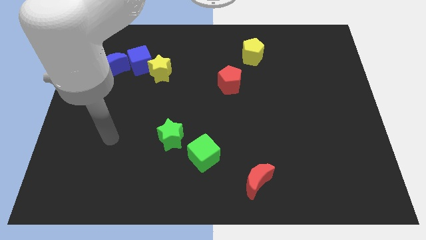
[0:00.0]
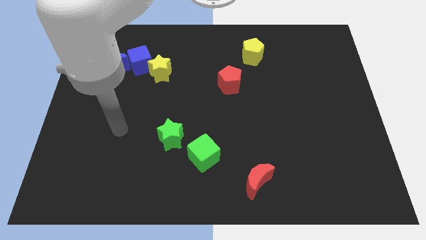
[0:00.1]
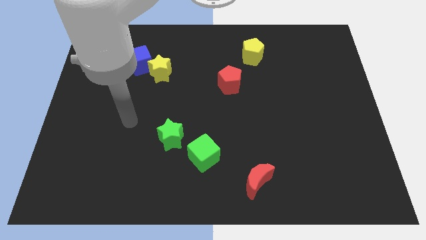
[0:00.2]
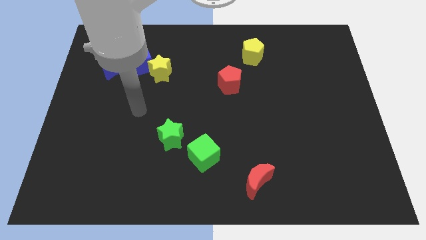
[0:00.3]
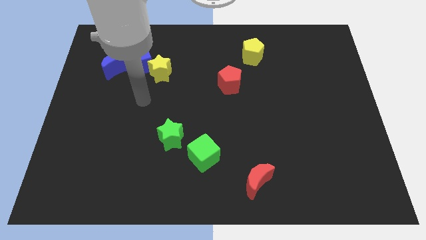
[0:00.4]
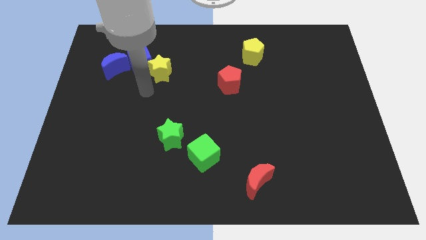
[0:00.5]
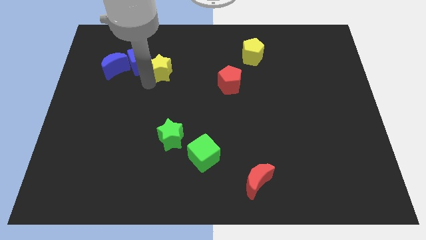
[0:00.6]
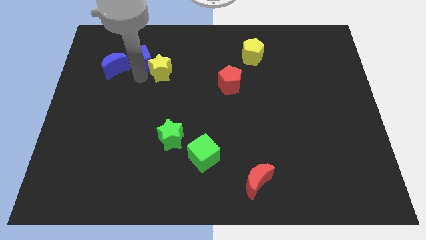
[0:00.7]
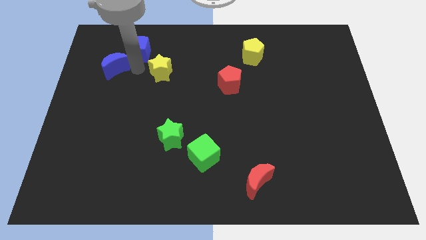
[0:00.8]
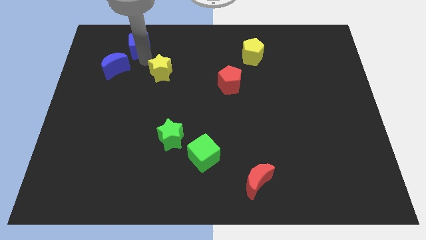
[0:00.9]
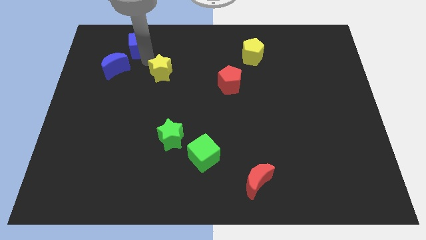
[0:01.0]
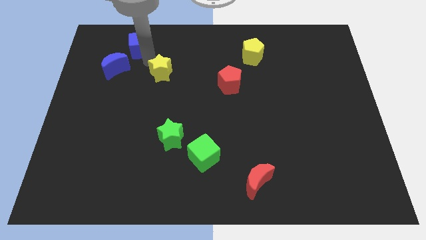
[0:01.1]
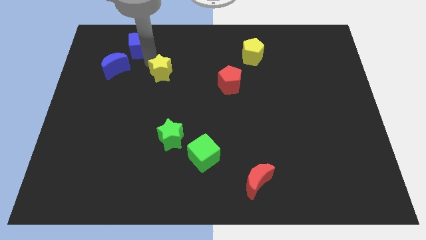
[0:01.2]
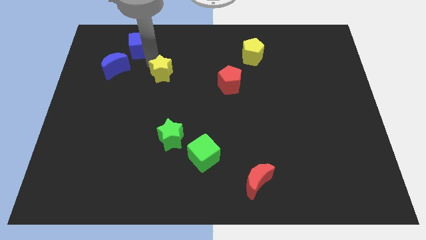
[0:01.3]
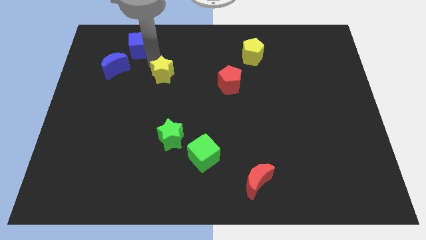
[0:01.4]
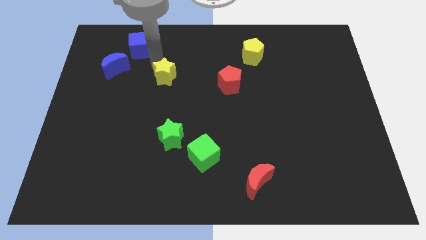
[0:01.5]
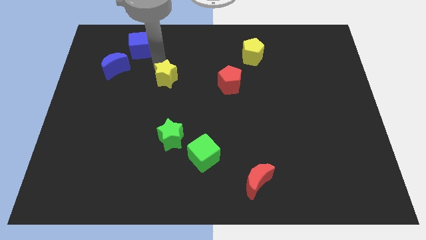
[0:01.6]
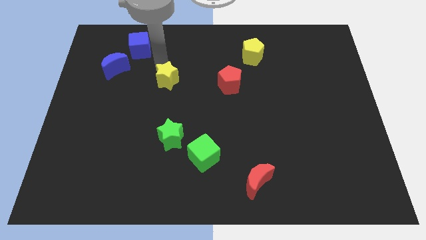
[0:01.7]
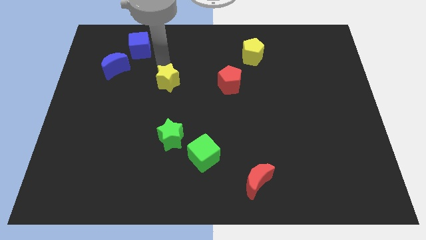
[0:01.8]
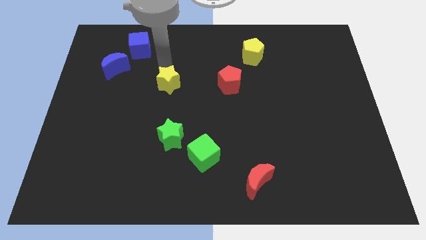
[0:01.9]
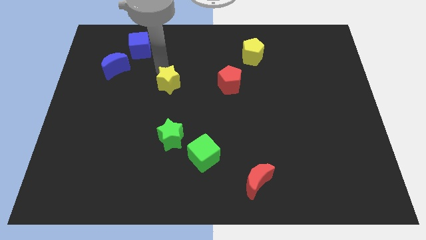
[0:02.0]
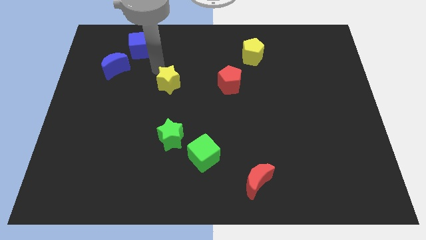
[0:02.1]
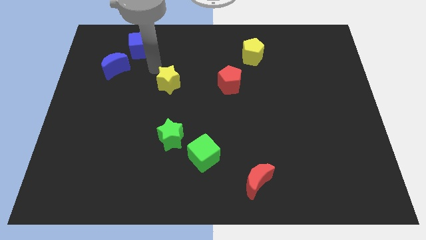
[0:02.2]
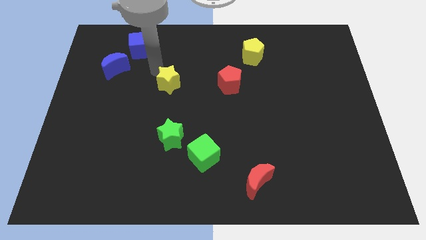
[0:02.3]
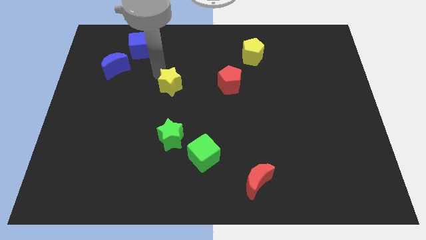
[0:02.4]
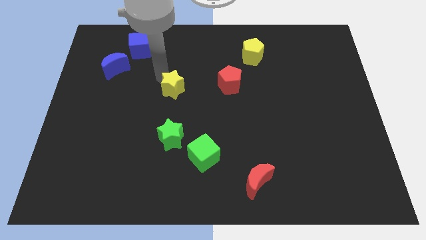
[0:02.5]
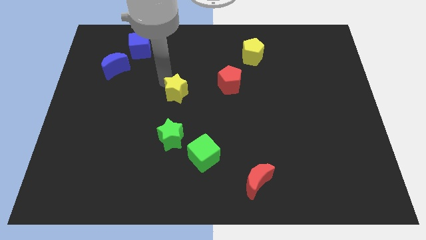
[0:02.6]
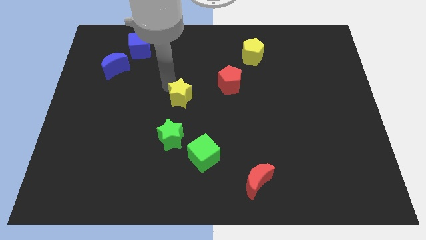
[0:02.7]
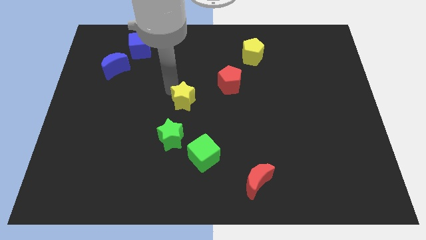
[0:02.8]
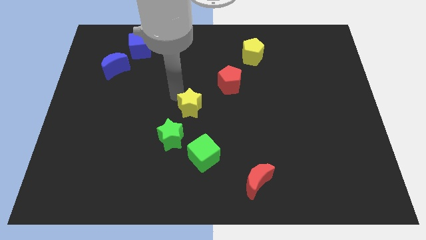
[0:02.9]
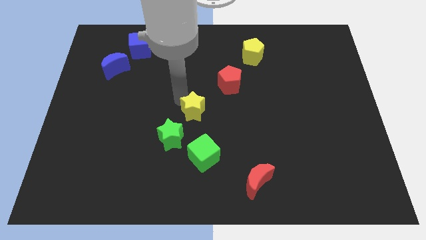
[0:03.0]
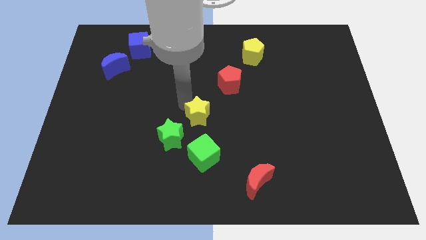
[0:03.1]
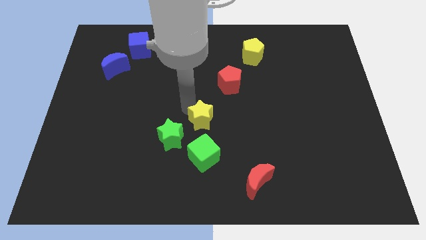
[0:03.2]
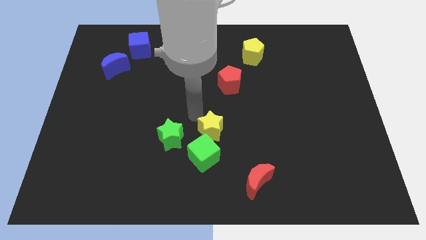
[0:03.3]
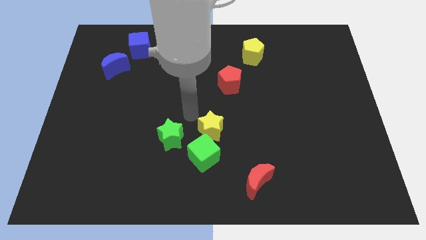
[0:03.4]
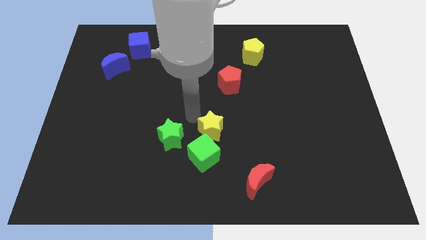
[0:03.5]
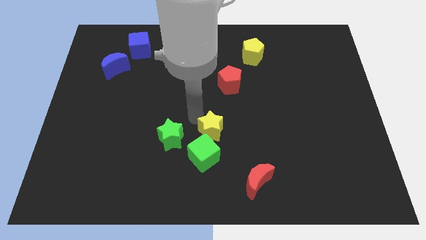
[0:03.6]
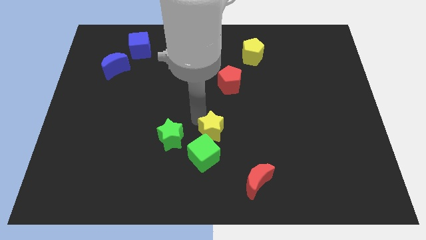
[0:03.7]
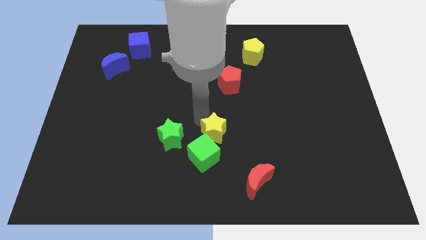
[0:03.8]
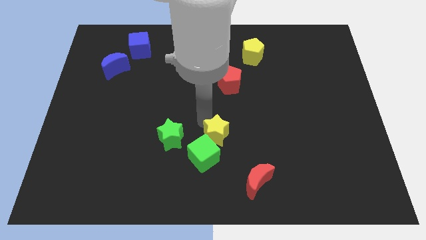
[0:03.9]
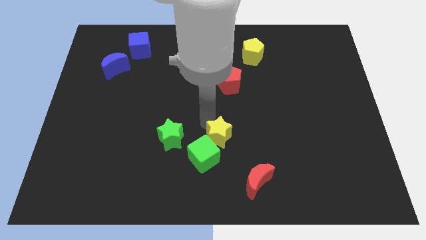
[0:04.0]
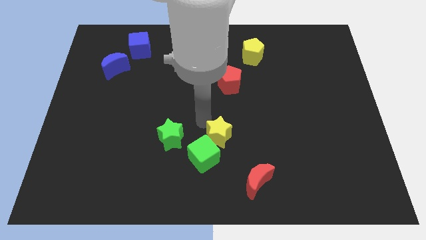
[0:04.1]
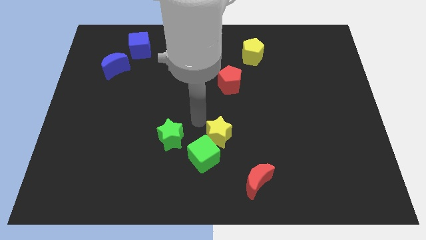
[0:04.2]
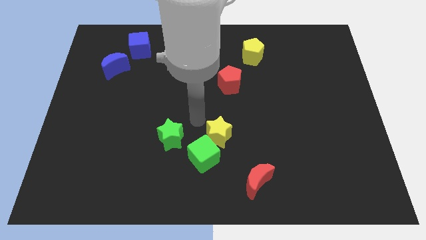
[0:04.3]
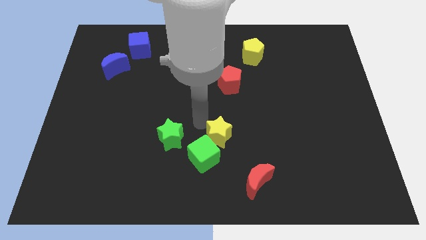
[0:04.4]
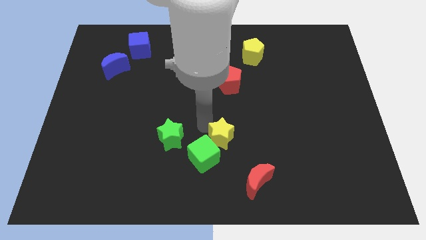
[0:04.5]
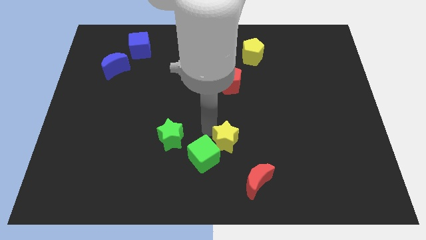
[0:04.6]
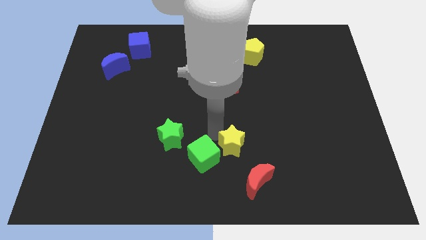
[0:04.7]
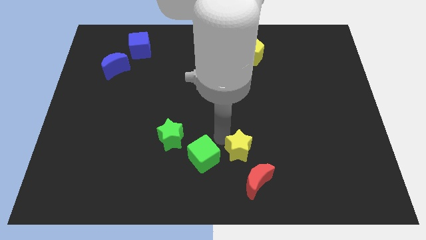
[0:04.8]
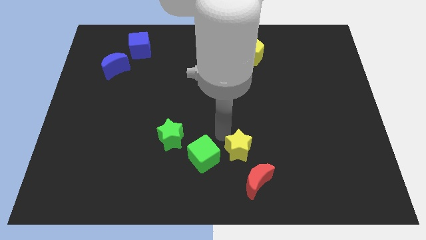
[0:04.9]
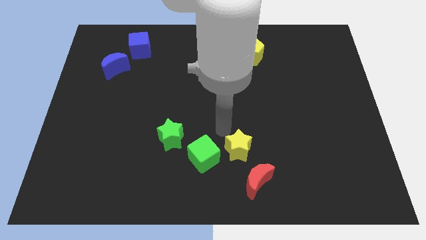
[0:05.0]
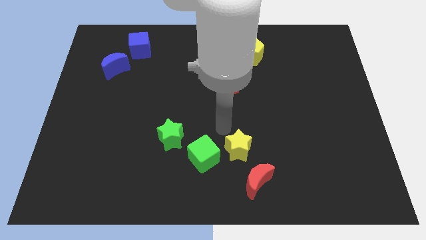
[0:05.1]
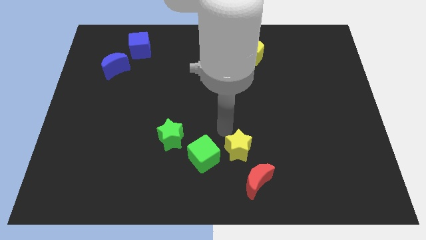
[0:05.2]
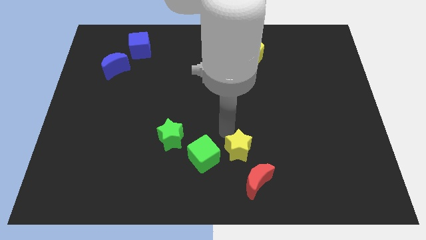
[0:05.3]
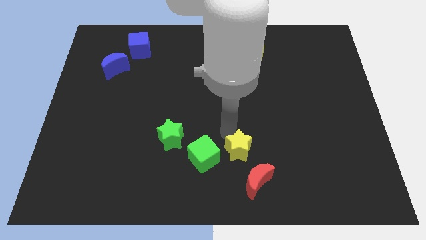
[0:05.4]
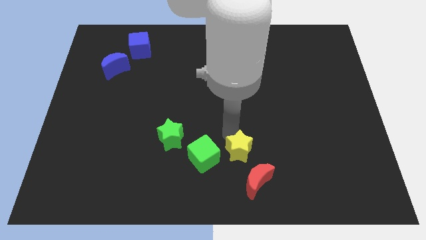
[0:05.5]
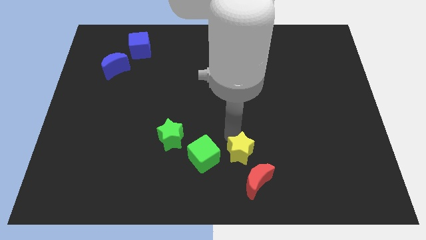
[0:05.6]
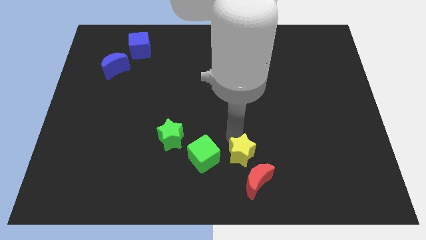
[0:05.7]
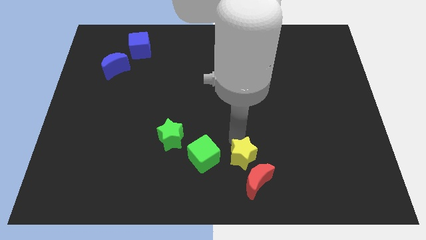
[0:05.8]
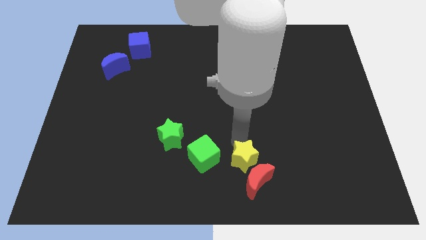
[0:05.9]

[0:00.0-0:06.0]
put the yellow star close to the red moon

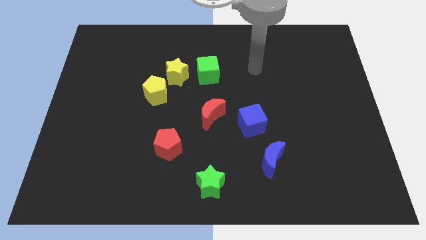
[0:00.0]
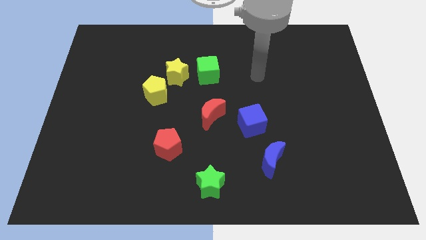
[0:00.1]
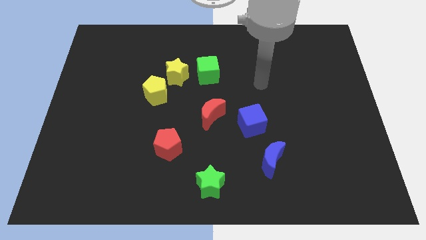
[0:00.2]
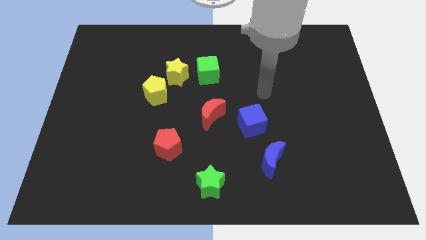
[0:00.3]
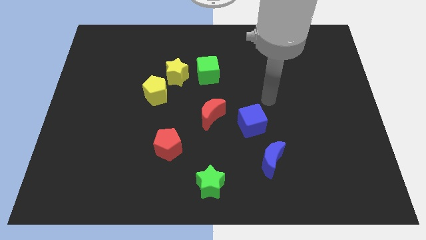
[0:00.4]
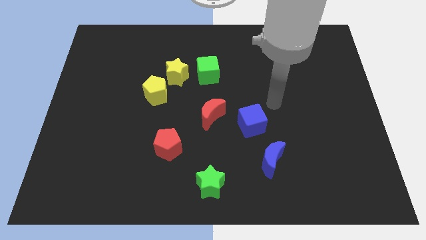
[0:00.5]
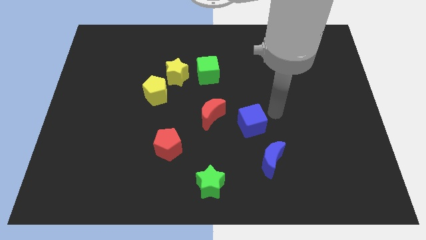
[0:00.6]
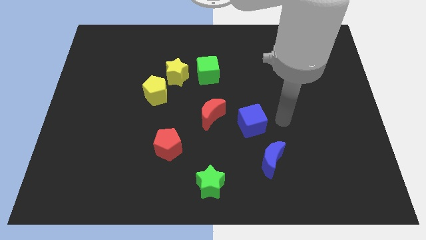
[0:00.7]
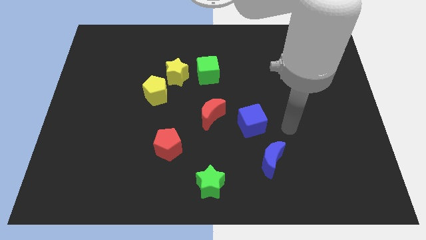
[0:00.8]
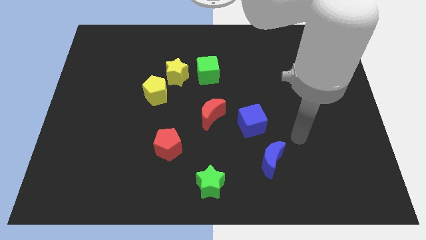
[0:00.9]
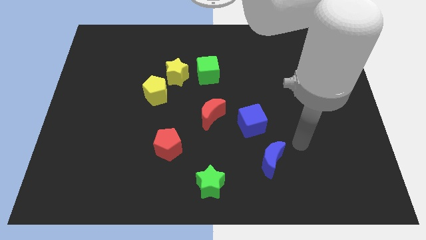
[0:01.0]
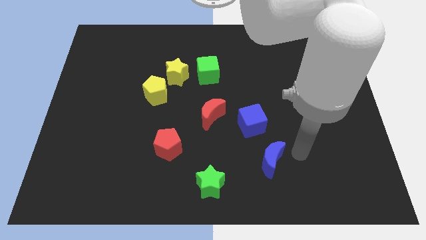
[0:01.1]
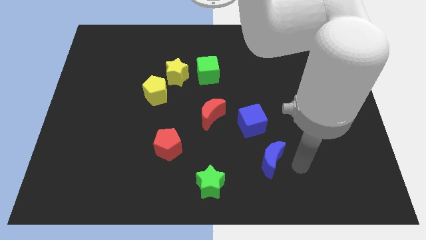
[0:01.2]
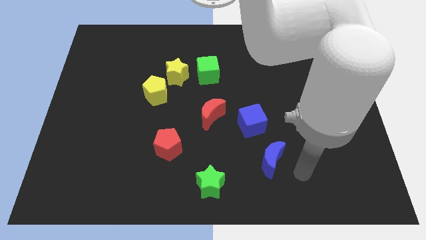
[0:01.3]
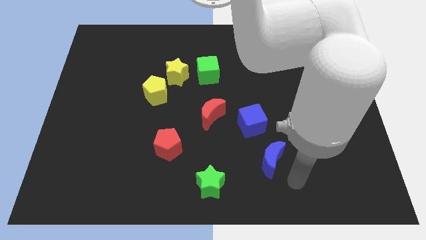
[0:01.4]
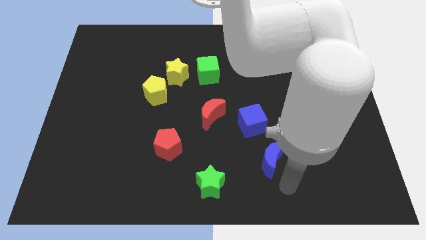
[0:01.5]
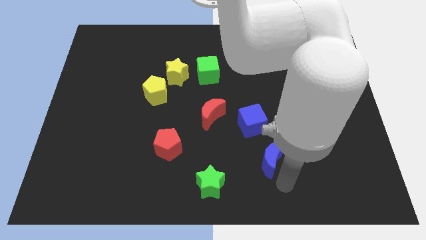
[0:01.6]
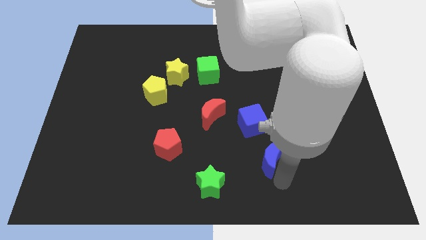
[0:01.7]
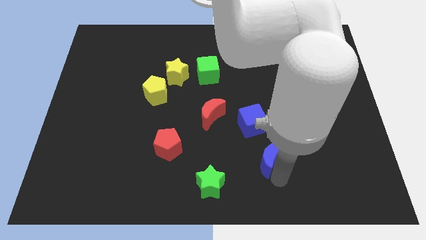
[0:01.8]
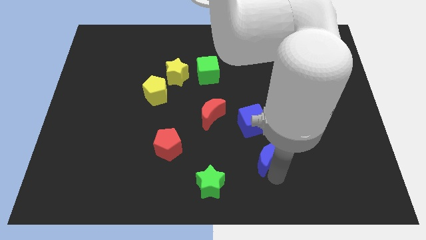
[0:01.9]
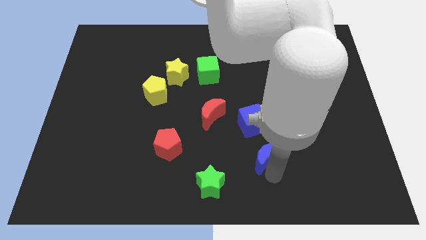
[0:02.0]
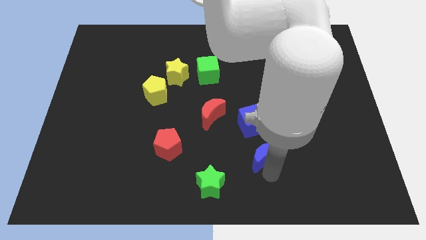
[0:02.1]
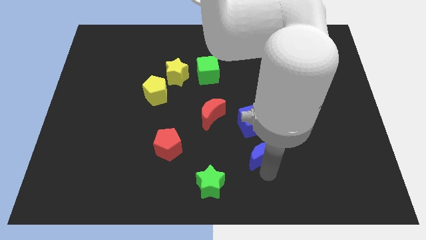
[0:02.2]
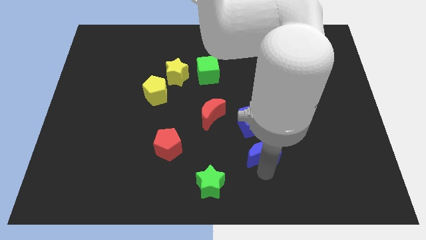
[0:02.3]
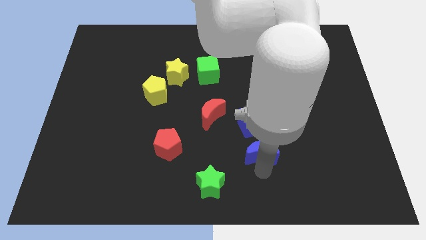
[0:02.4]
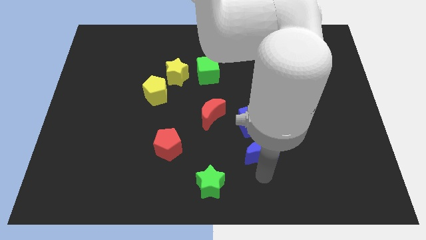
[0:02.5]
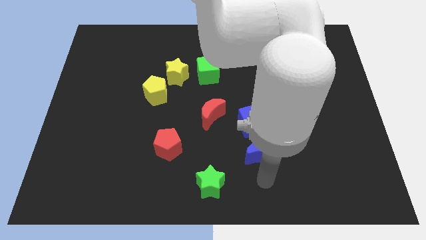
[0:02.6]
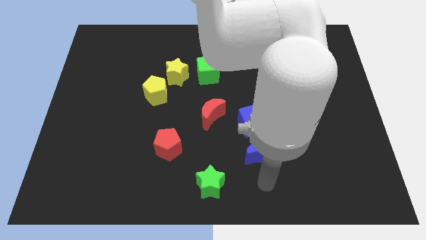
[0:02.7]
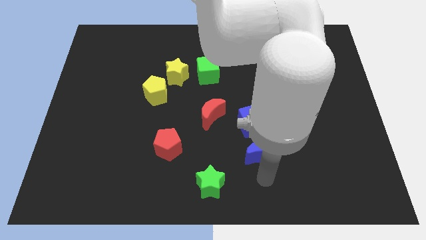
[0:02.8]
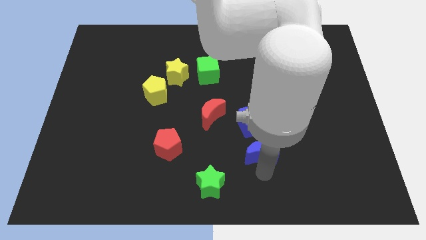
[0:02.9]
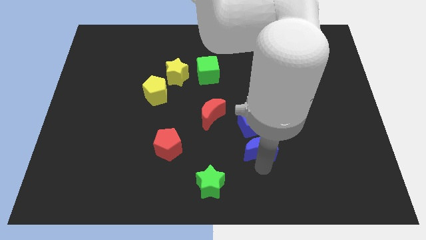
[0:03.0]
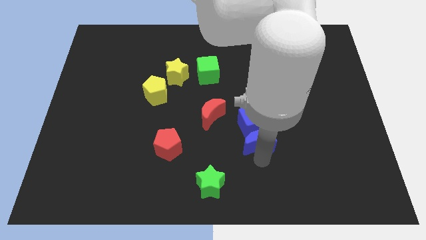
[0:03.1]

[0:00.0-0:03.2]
move the blue moon close to the blue cube
